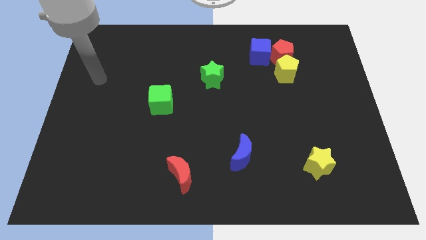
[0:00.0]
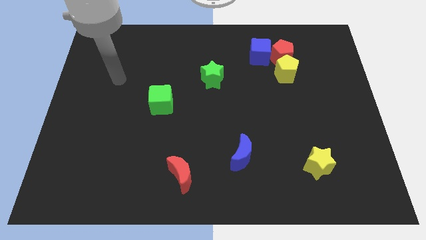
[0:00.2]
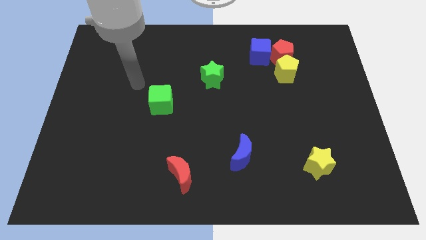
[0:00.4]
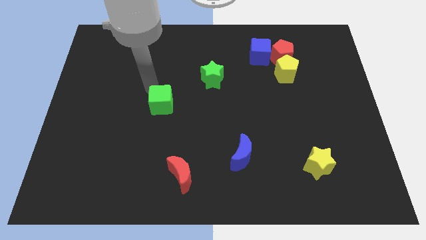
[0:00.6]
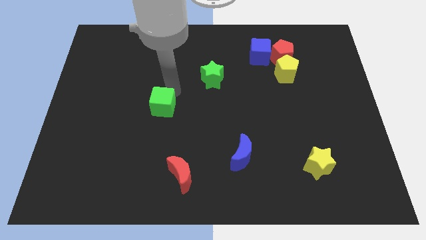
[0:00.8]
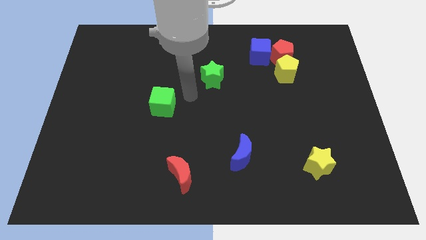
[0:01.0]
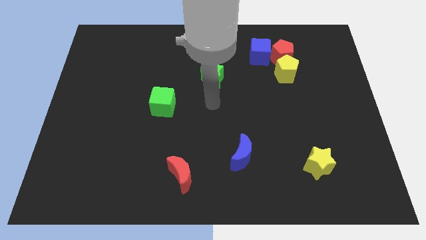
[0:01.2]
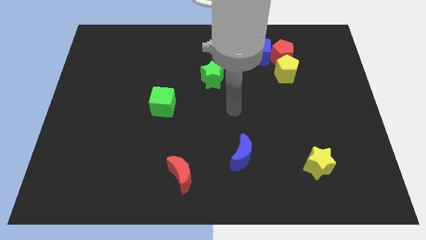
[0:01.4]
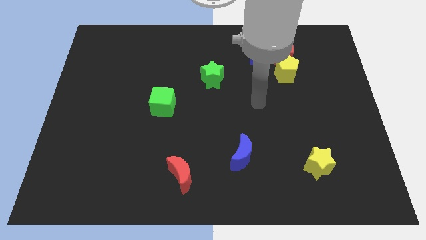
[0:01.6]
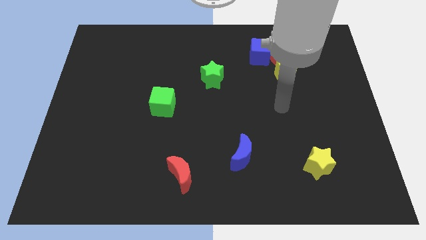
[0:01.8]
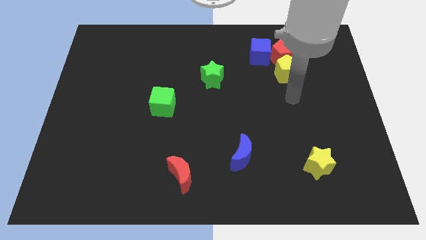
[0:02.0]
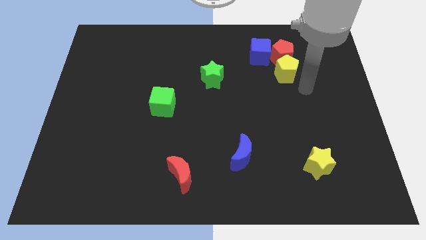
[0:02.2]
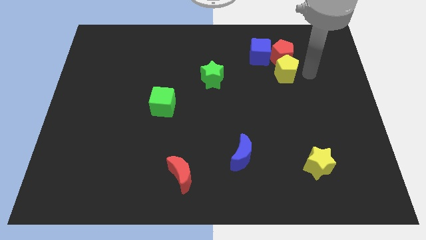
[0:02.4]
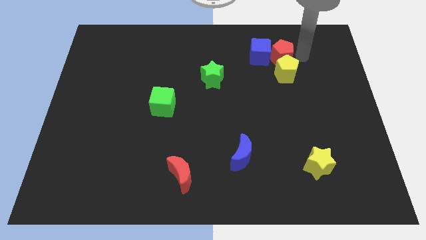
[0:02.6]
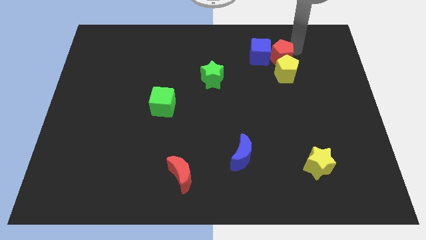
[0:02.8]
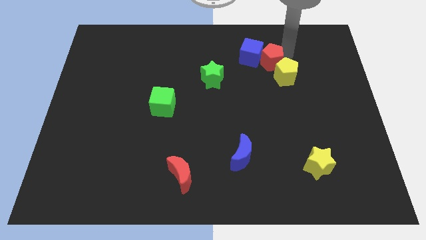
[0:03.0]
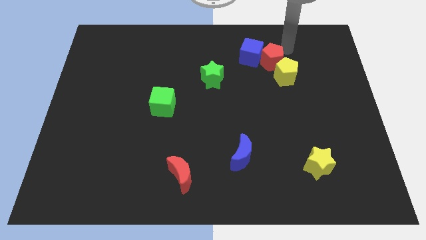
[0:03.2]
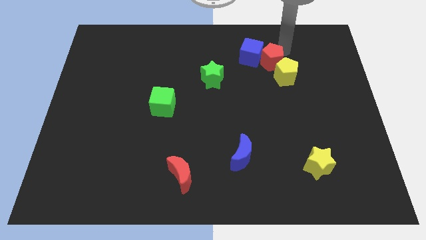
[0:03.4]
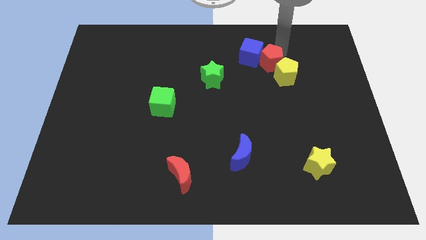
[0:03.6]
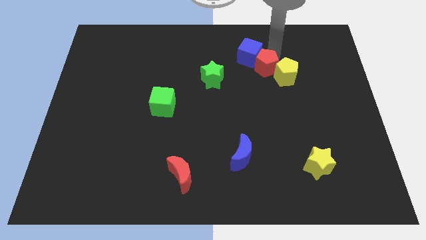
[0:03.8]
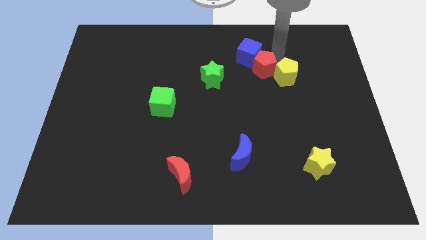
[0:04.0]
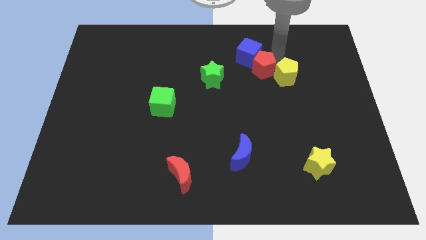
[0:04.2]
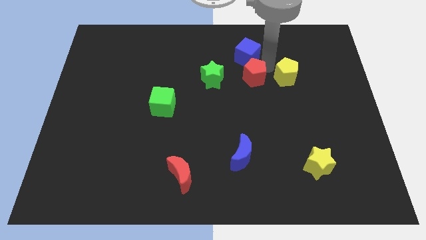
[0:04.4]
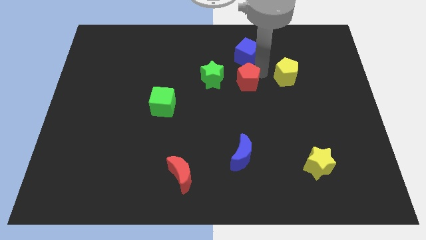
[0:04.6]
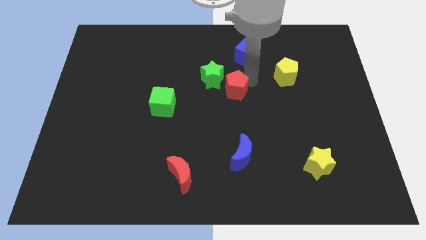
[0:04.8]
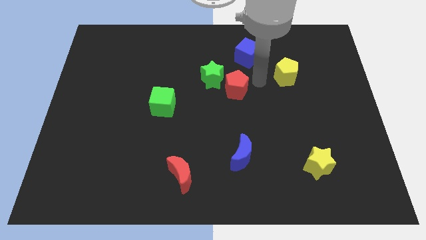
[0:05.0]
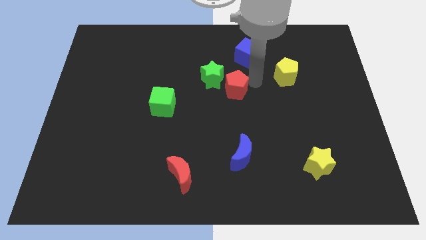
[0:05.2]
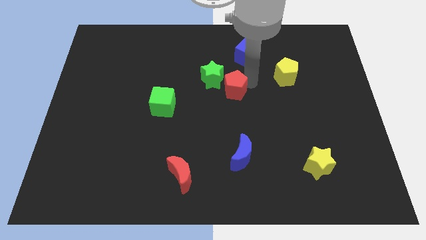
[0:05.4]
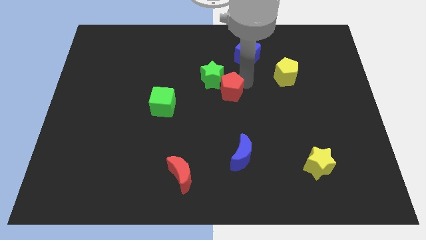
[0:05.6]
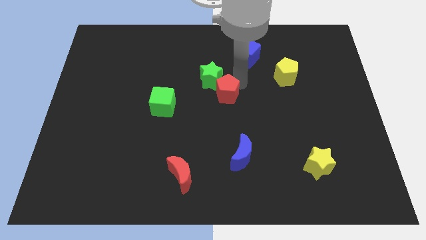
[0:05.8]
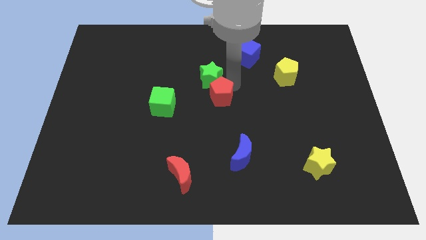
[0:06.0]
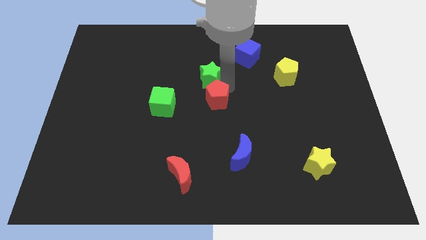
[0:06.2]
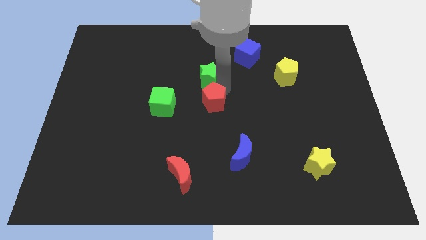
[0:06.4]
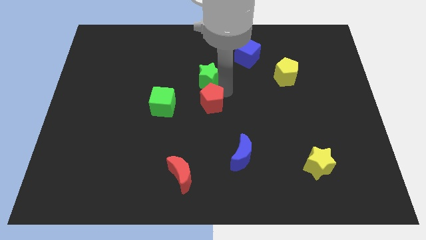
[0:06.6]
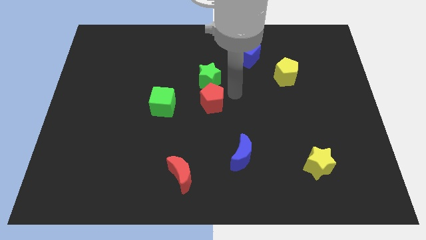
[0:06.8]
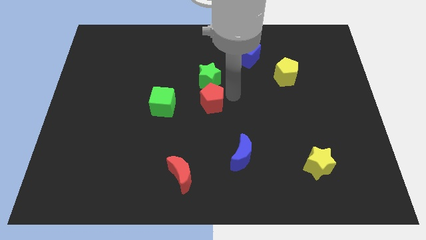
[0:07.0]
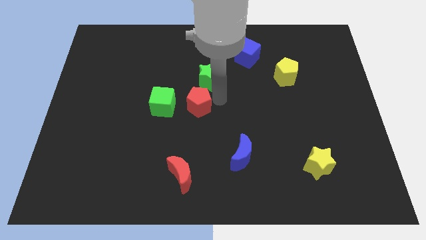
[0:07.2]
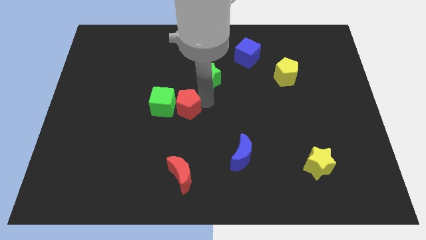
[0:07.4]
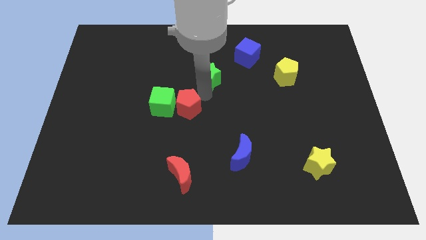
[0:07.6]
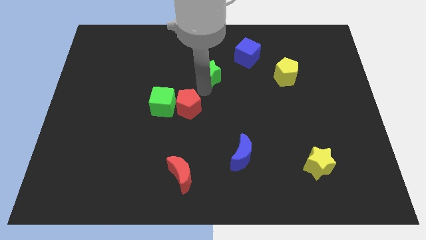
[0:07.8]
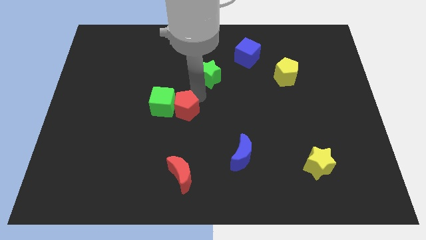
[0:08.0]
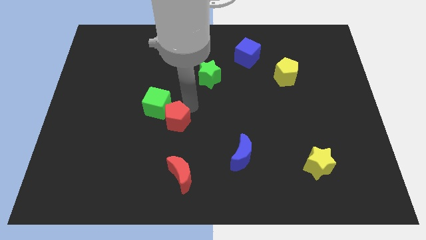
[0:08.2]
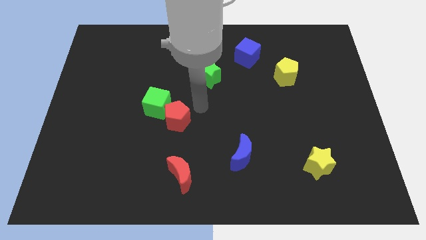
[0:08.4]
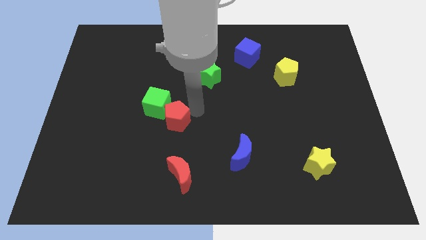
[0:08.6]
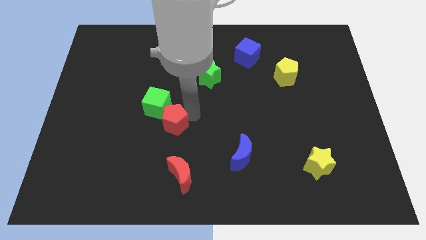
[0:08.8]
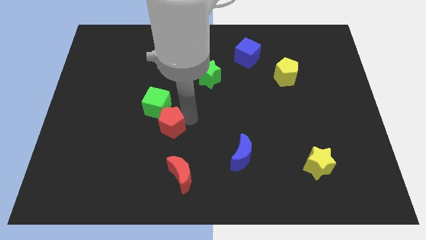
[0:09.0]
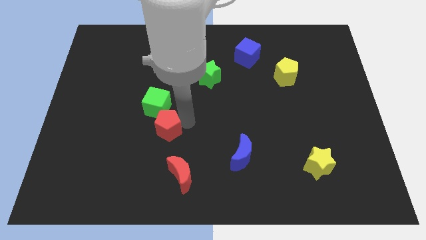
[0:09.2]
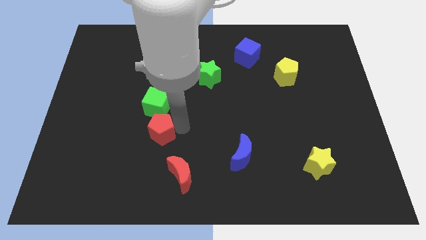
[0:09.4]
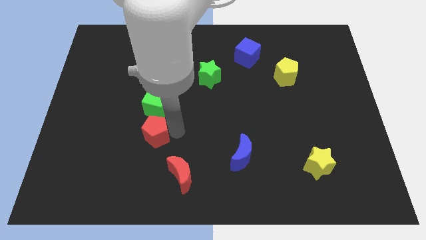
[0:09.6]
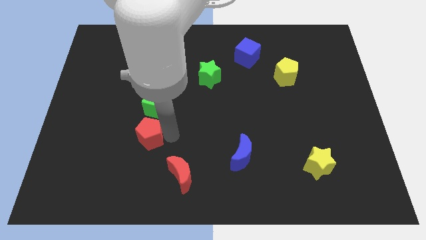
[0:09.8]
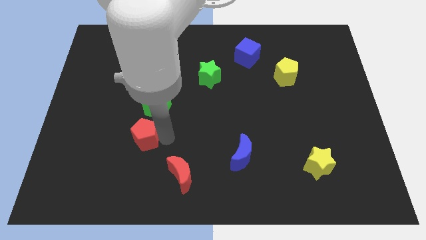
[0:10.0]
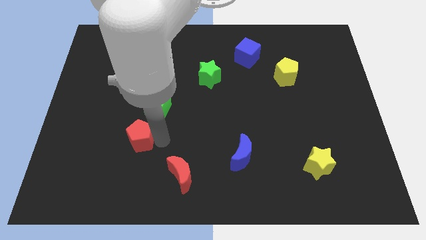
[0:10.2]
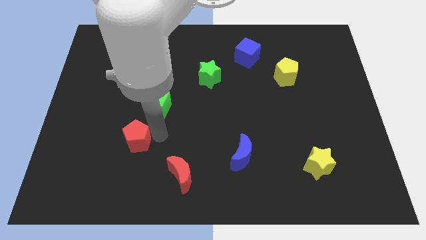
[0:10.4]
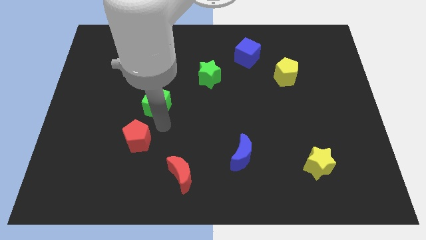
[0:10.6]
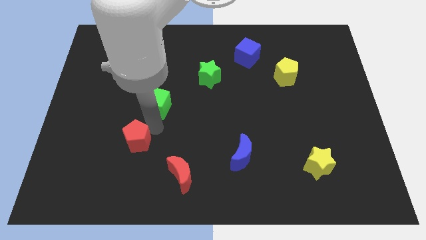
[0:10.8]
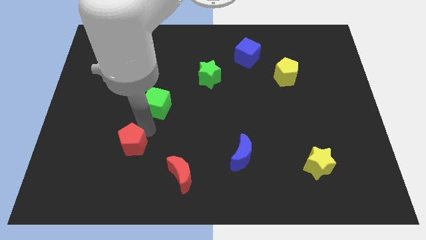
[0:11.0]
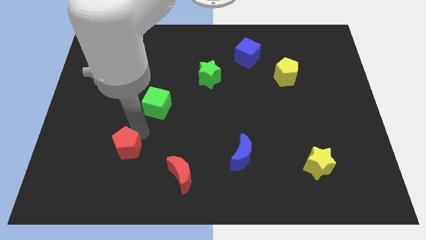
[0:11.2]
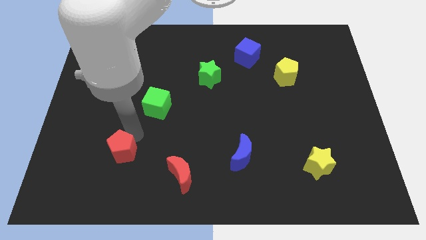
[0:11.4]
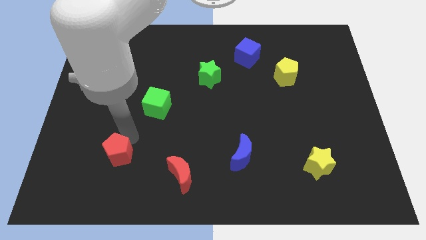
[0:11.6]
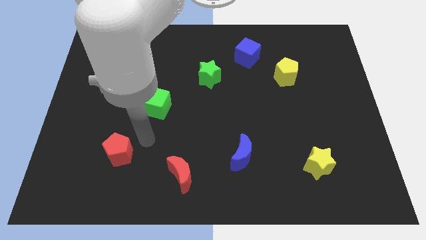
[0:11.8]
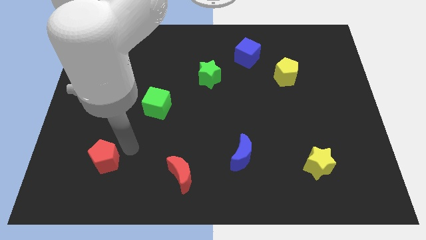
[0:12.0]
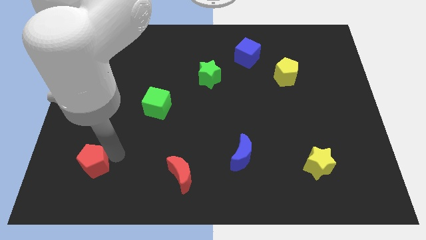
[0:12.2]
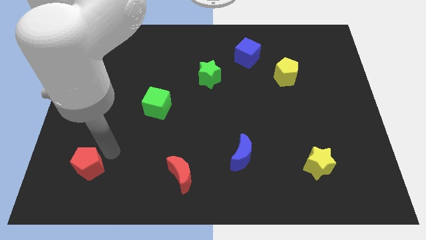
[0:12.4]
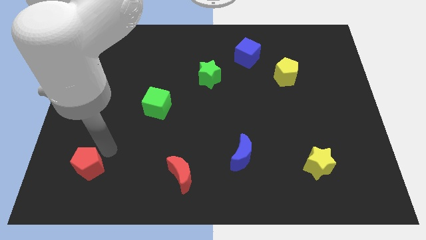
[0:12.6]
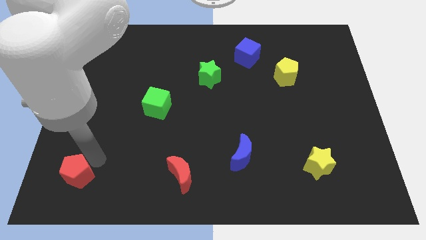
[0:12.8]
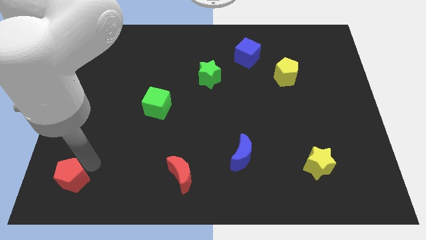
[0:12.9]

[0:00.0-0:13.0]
slide the red pentagon to the lower left corner
